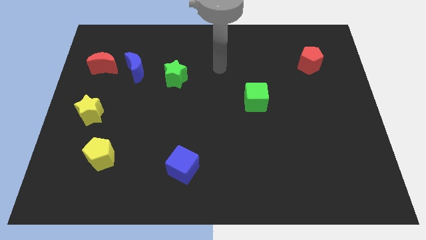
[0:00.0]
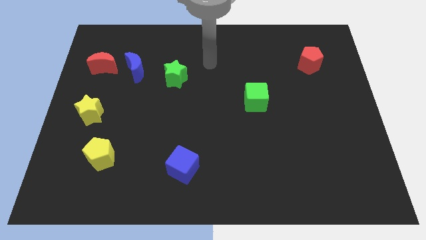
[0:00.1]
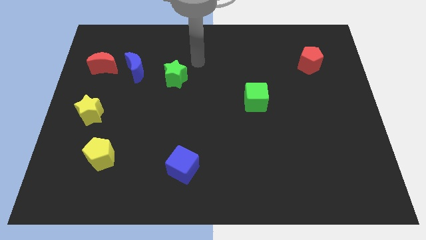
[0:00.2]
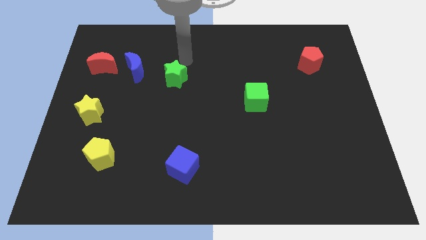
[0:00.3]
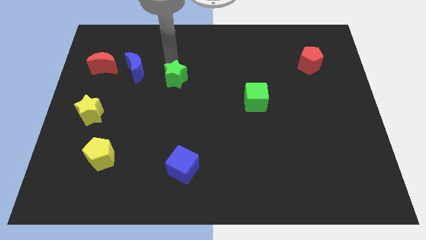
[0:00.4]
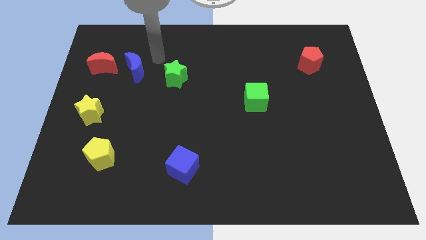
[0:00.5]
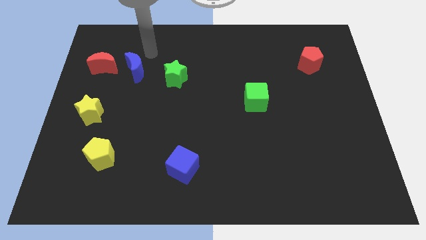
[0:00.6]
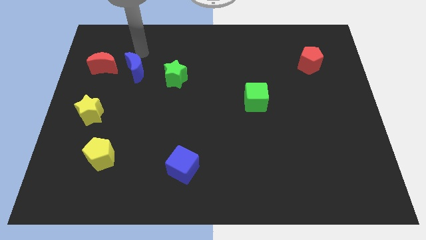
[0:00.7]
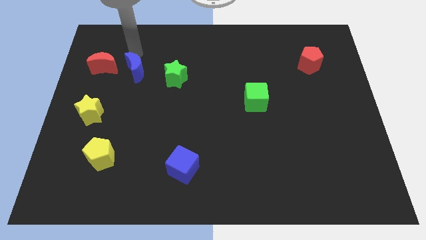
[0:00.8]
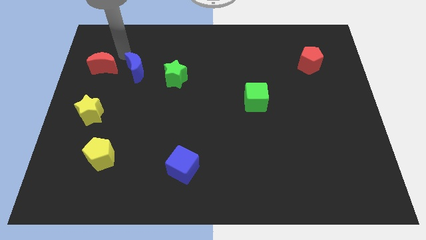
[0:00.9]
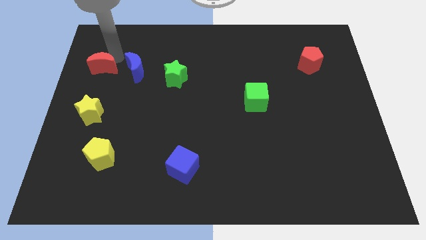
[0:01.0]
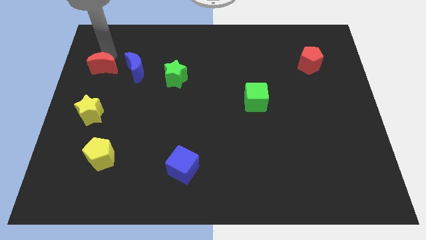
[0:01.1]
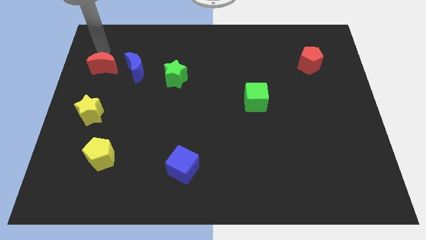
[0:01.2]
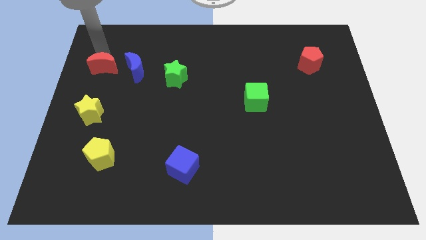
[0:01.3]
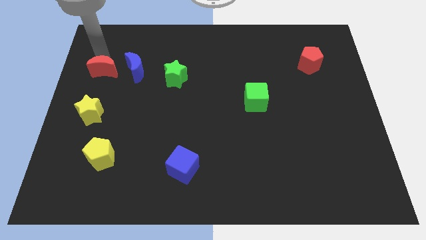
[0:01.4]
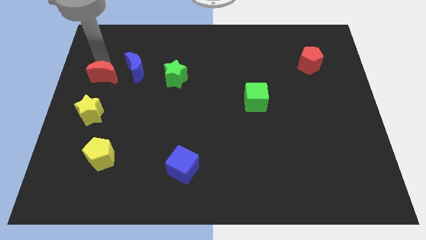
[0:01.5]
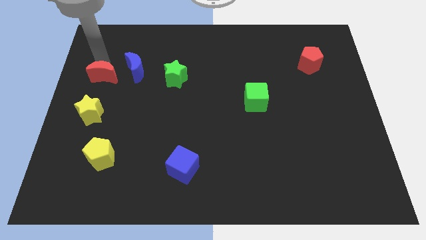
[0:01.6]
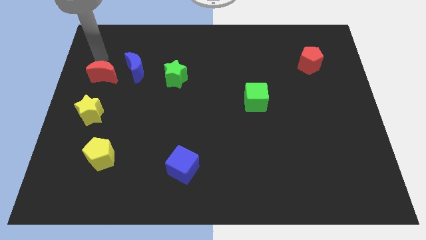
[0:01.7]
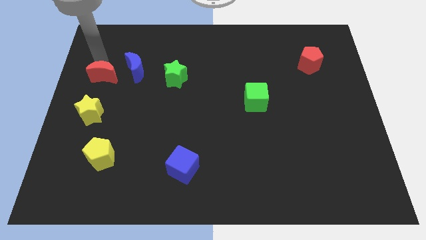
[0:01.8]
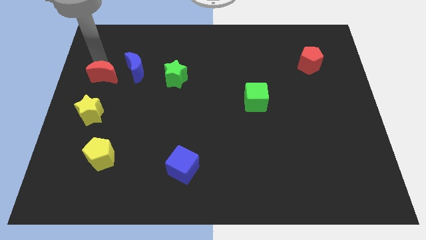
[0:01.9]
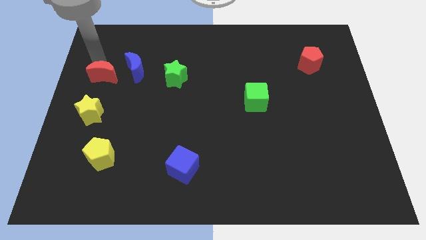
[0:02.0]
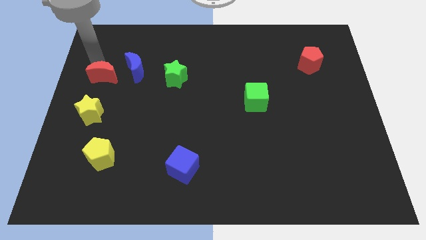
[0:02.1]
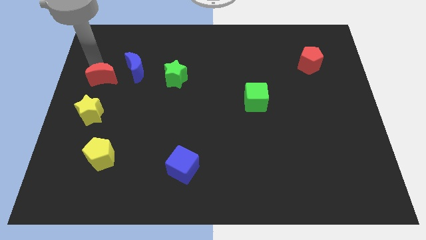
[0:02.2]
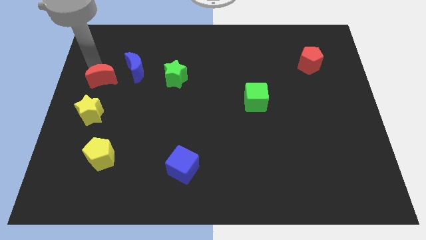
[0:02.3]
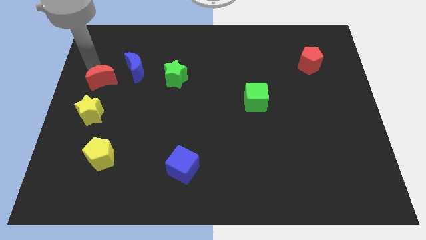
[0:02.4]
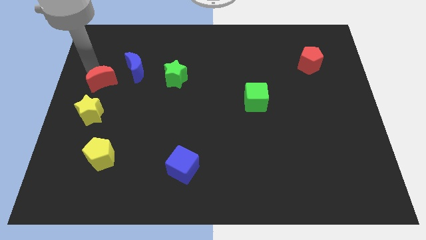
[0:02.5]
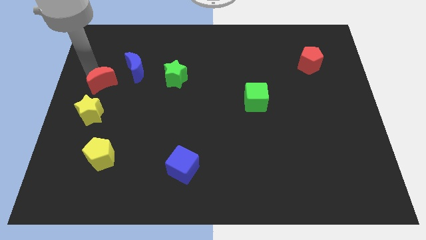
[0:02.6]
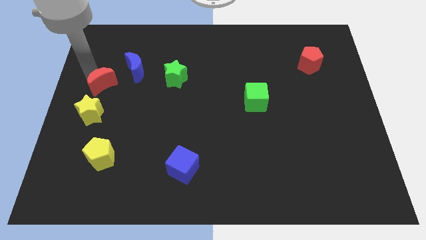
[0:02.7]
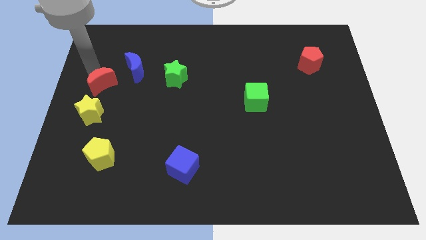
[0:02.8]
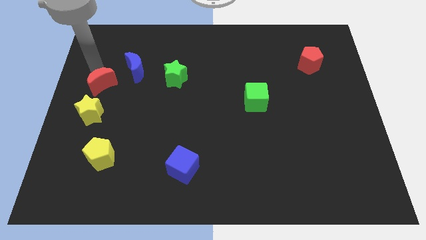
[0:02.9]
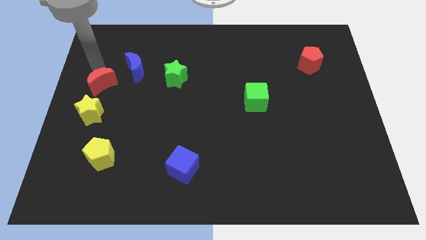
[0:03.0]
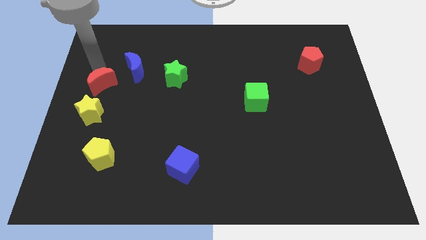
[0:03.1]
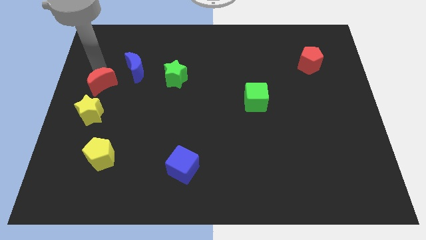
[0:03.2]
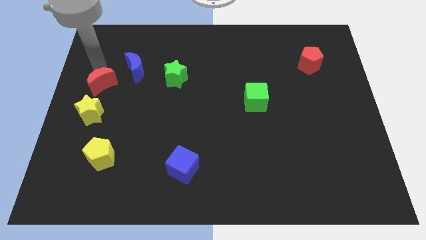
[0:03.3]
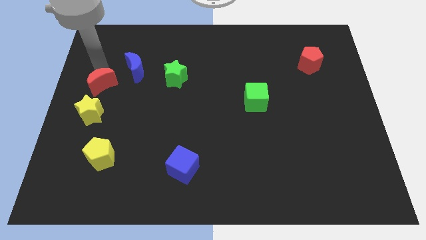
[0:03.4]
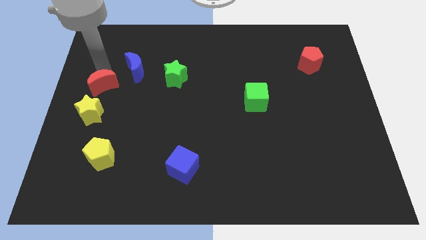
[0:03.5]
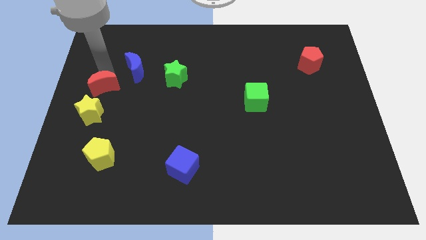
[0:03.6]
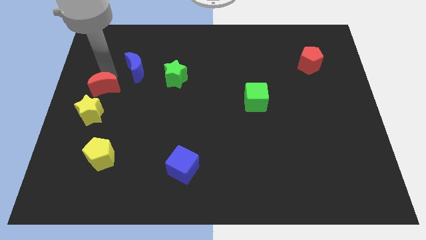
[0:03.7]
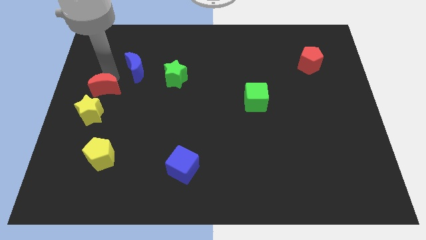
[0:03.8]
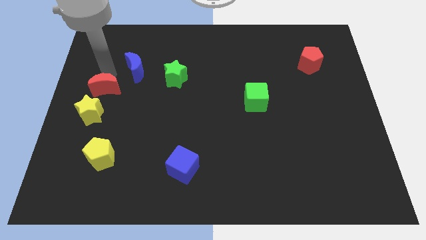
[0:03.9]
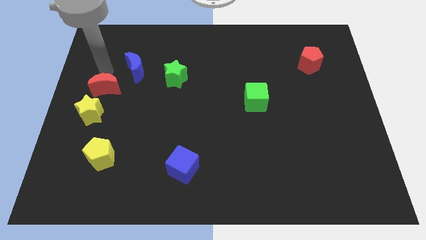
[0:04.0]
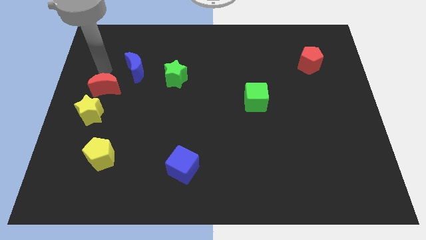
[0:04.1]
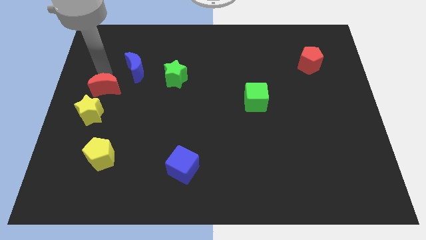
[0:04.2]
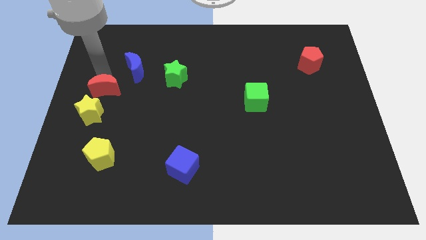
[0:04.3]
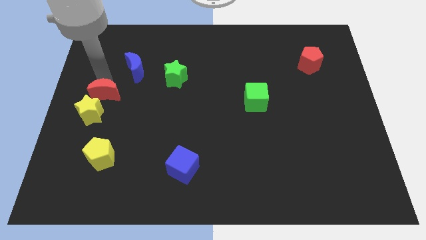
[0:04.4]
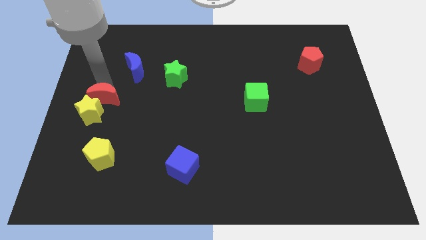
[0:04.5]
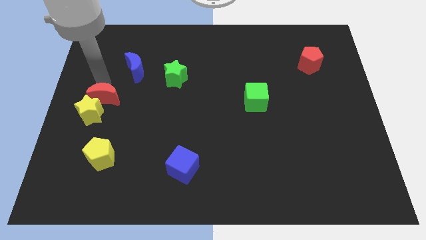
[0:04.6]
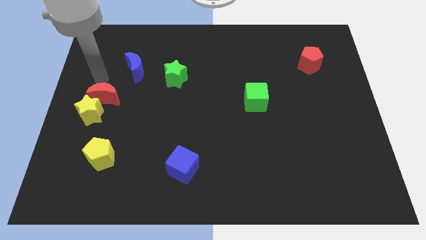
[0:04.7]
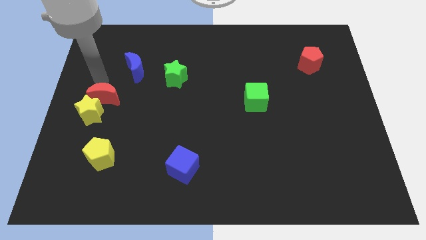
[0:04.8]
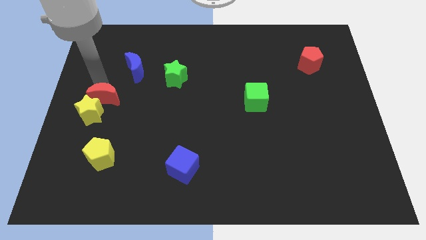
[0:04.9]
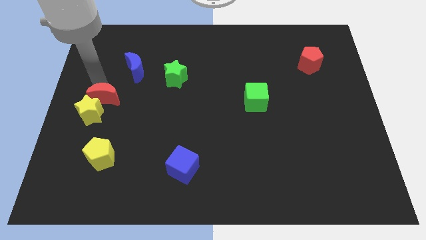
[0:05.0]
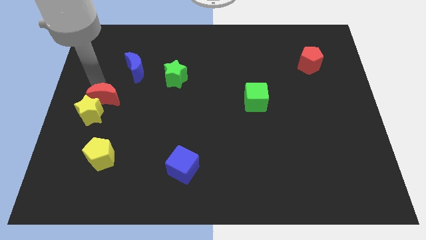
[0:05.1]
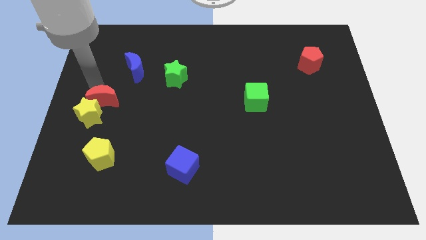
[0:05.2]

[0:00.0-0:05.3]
push the red moon to the top side of the yellow pentagon

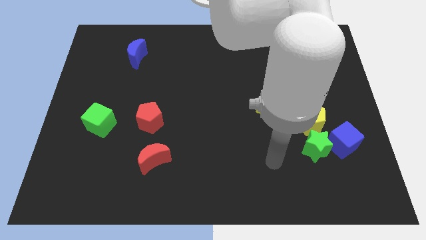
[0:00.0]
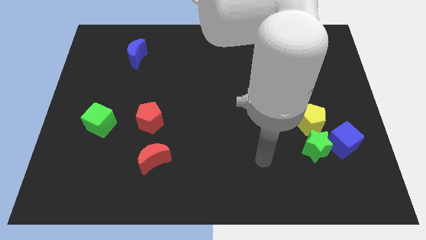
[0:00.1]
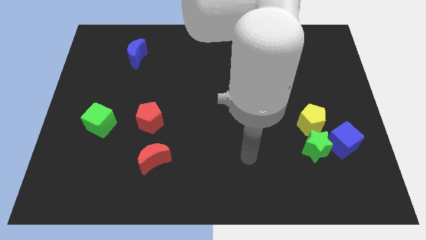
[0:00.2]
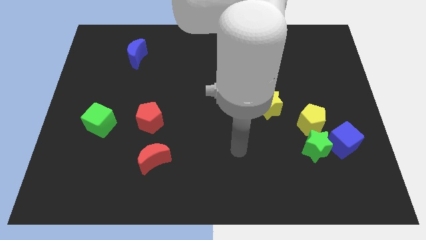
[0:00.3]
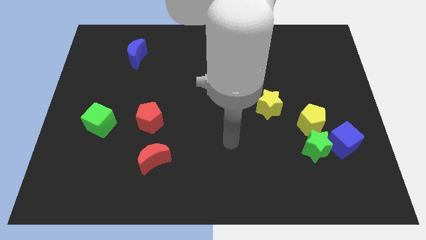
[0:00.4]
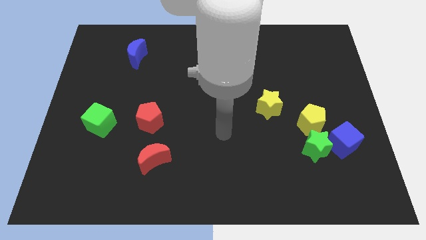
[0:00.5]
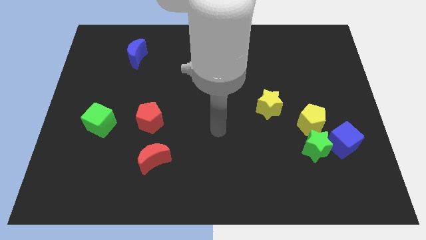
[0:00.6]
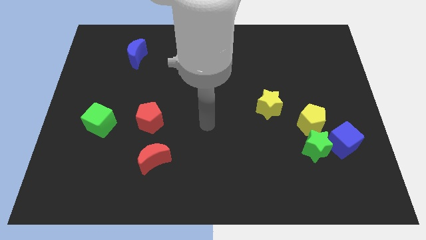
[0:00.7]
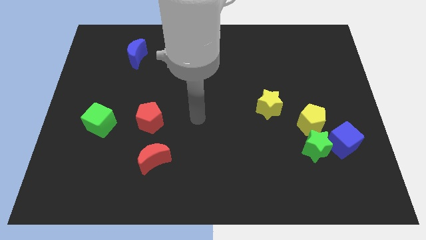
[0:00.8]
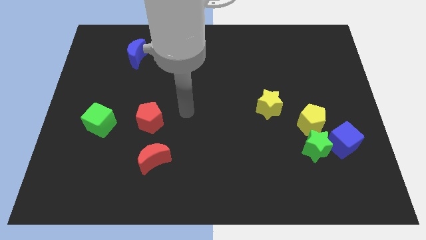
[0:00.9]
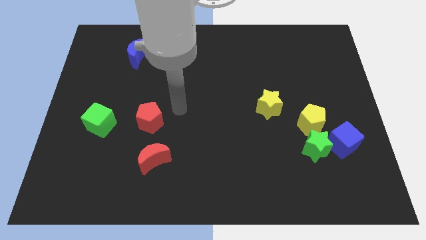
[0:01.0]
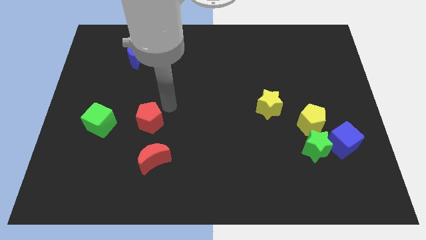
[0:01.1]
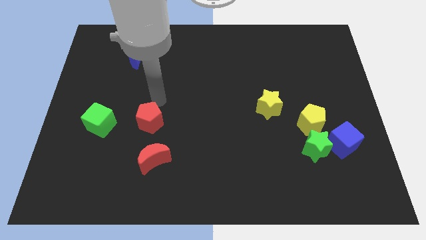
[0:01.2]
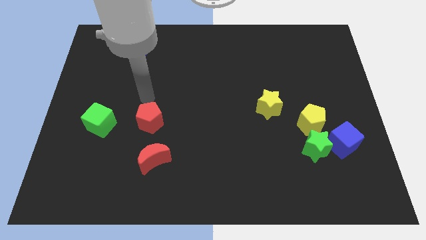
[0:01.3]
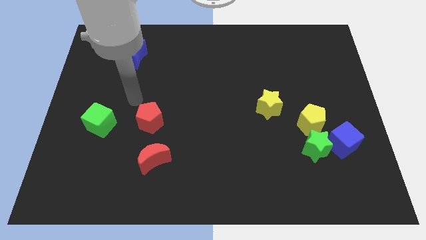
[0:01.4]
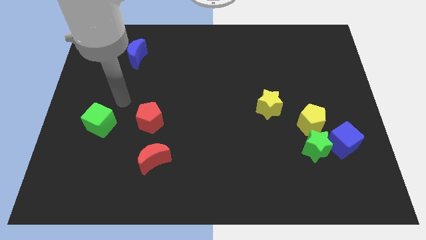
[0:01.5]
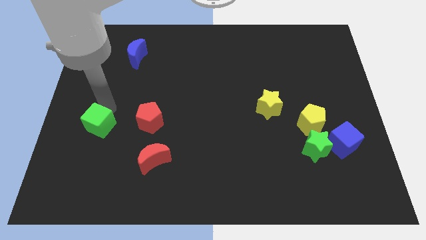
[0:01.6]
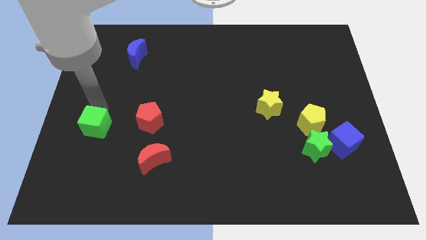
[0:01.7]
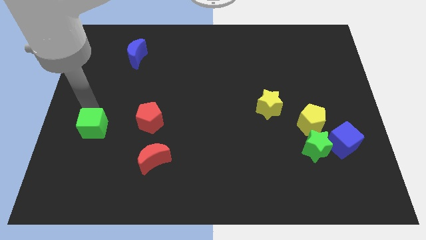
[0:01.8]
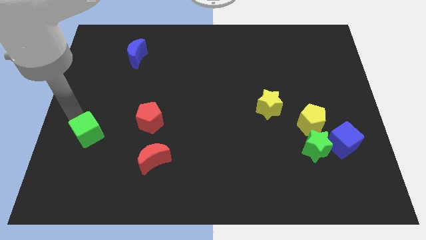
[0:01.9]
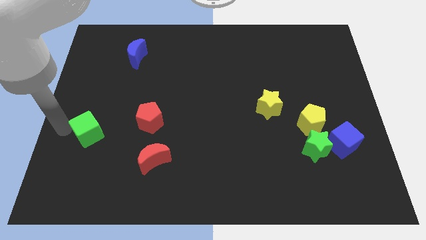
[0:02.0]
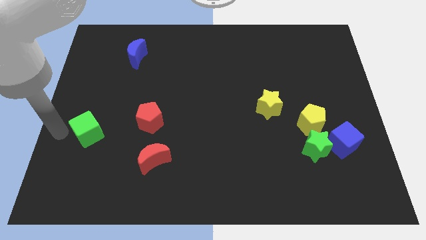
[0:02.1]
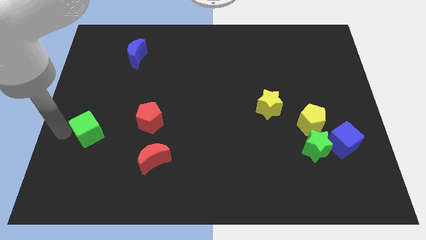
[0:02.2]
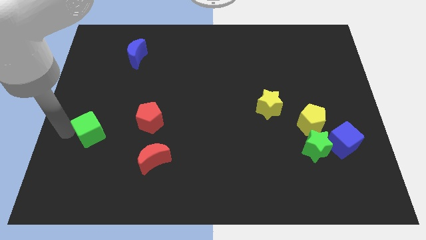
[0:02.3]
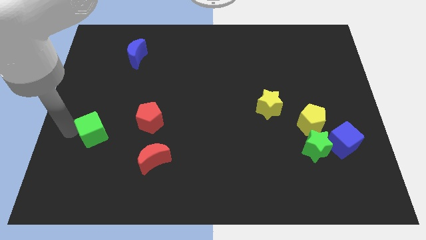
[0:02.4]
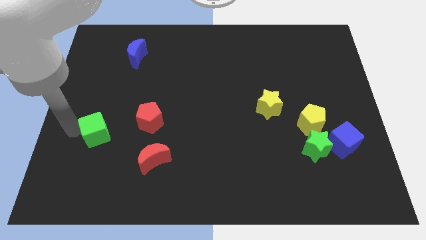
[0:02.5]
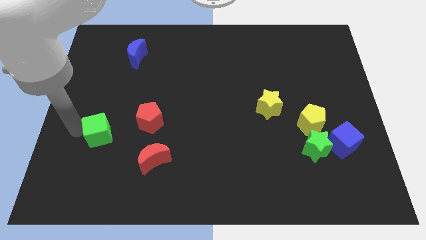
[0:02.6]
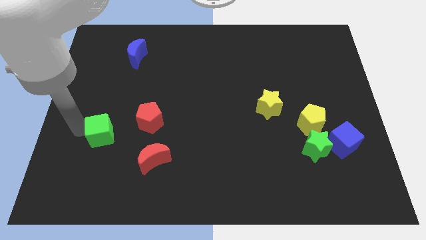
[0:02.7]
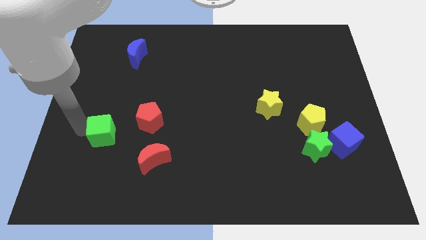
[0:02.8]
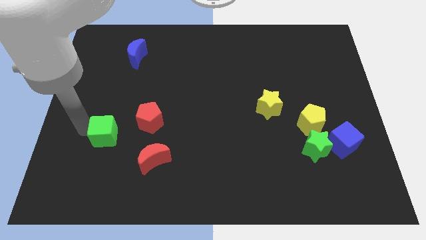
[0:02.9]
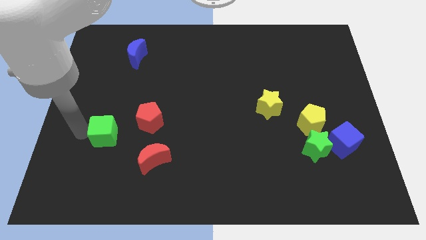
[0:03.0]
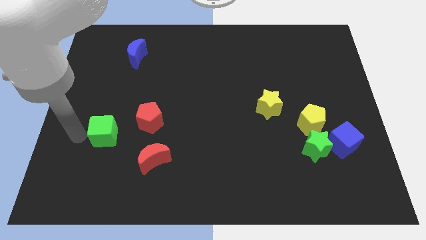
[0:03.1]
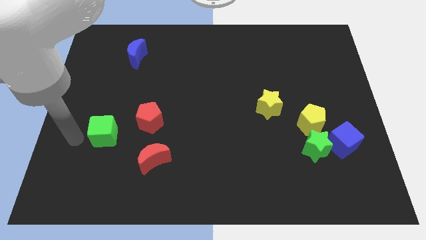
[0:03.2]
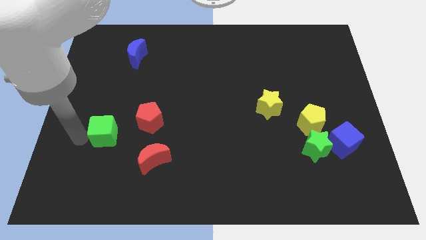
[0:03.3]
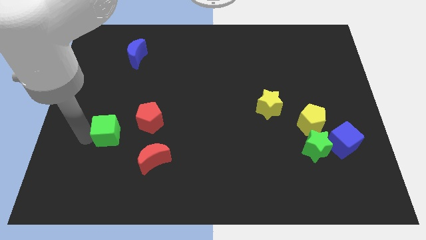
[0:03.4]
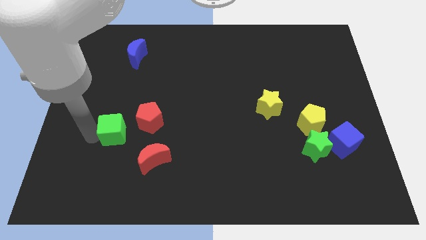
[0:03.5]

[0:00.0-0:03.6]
slide the green cube diagonally up and to the left of the red moon
